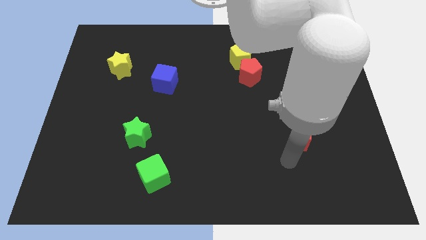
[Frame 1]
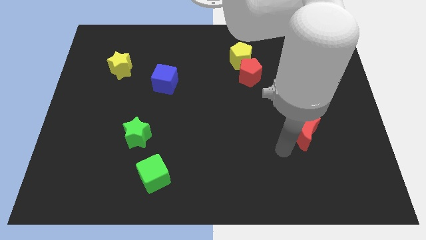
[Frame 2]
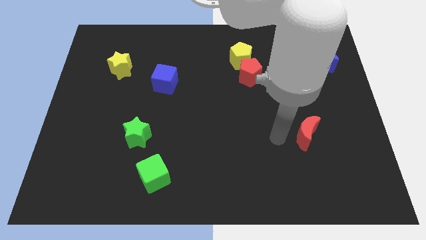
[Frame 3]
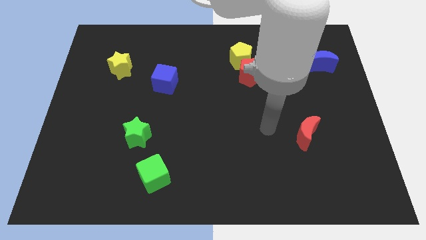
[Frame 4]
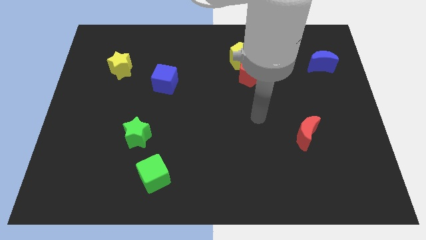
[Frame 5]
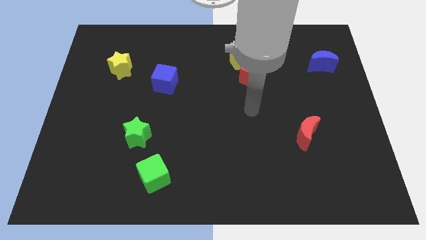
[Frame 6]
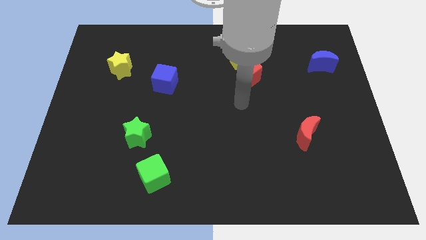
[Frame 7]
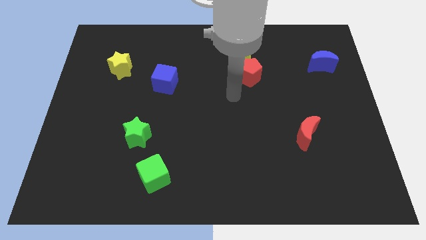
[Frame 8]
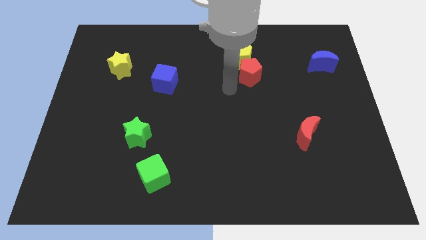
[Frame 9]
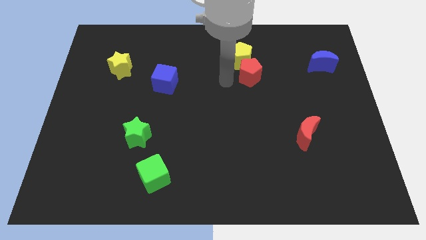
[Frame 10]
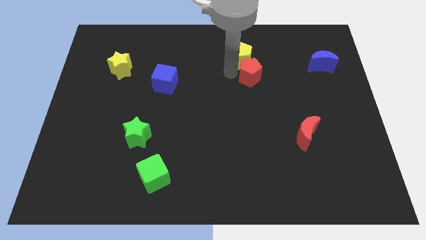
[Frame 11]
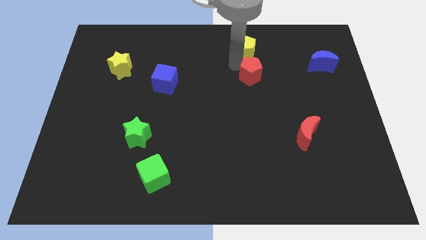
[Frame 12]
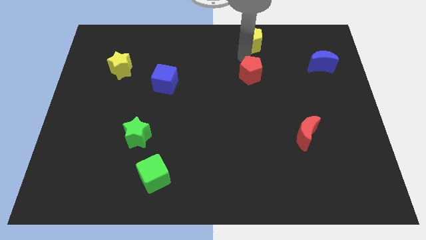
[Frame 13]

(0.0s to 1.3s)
separate the red pentagon from the yellow pentagon

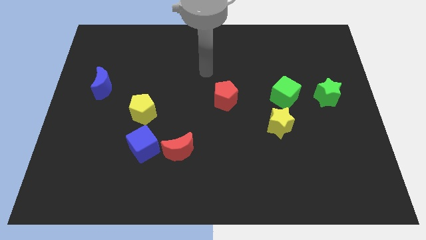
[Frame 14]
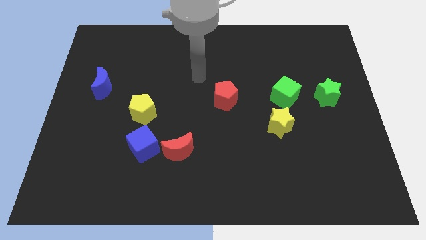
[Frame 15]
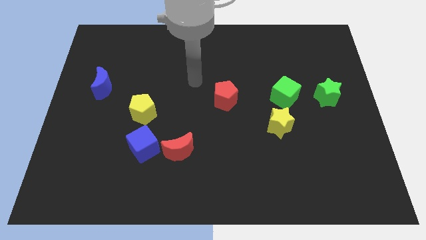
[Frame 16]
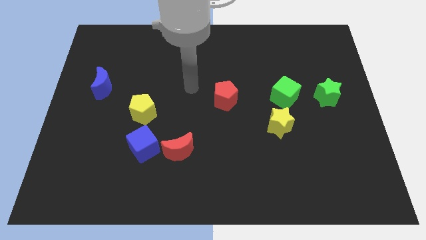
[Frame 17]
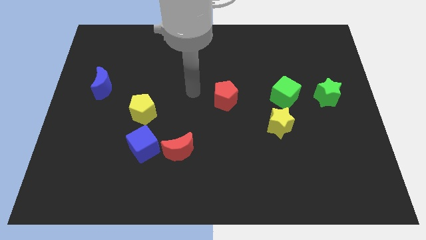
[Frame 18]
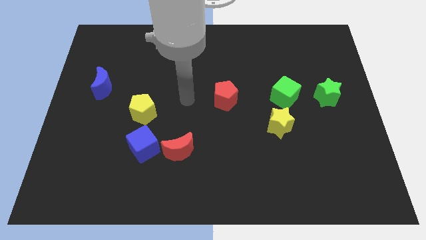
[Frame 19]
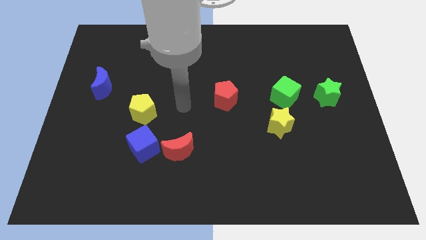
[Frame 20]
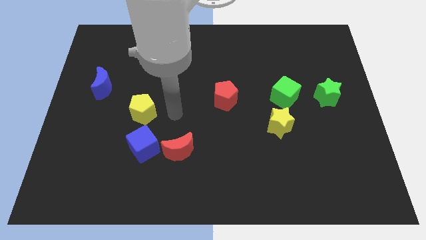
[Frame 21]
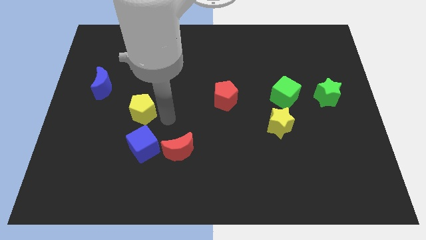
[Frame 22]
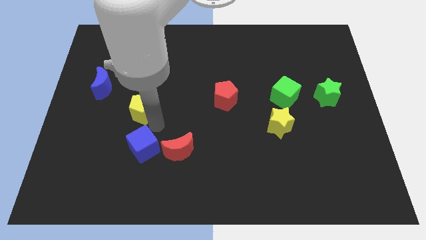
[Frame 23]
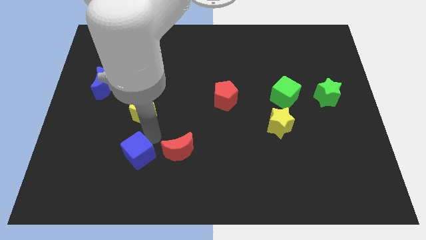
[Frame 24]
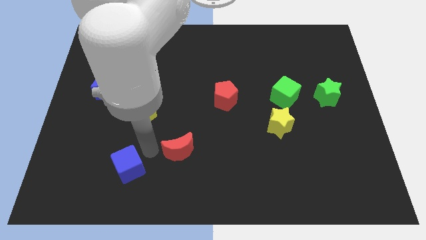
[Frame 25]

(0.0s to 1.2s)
pull the red moon apart from the blue cube

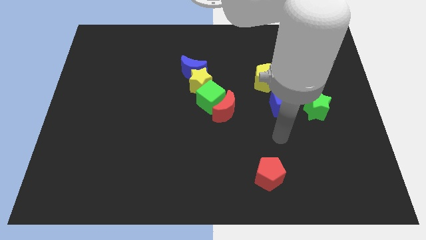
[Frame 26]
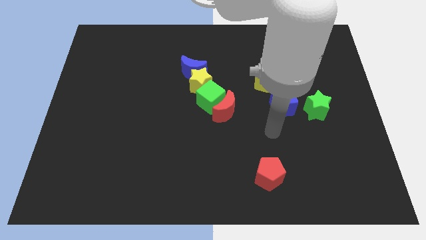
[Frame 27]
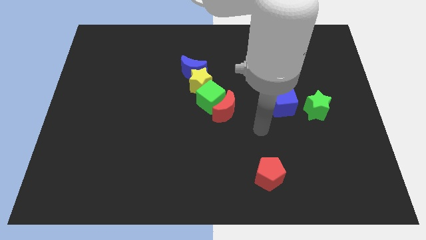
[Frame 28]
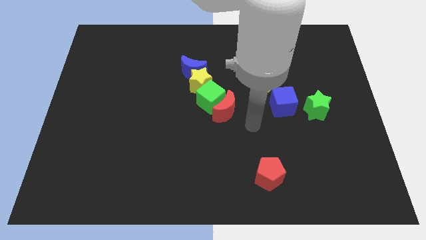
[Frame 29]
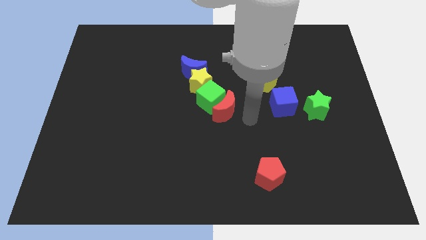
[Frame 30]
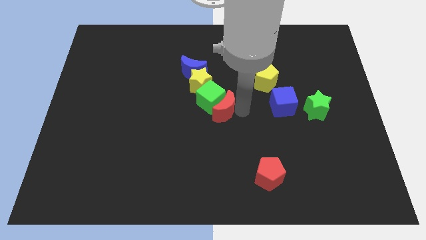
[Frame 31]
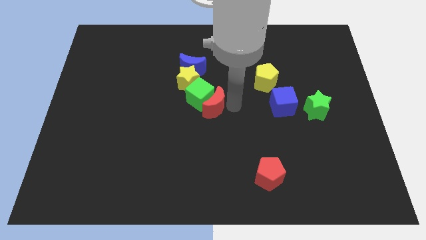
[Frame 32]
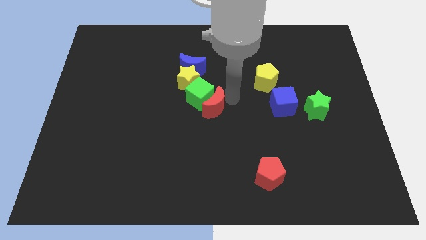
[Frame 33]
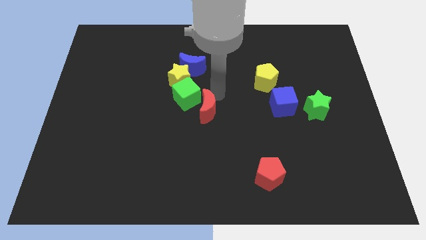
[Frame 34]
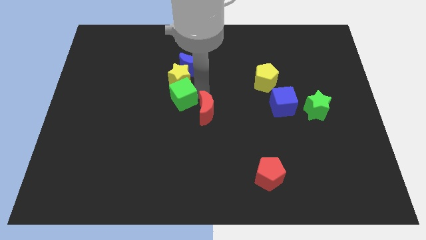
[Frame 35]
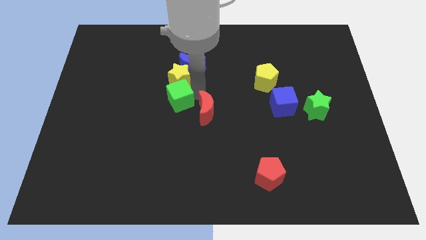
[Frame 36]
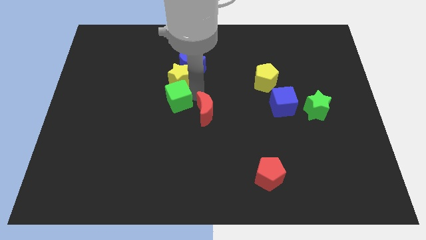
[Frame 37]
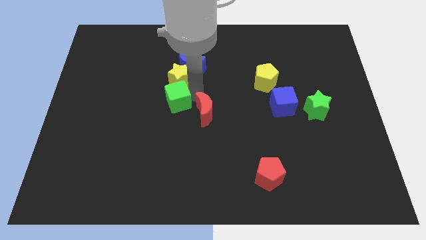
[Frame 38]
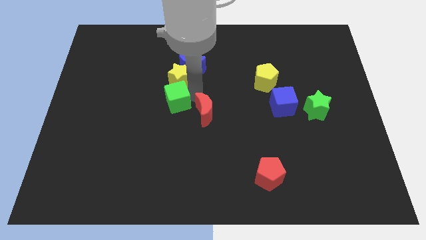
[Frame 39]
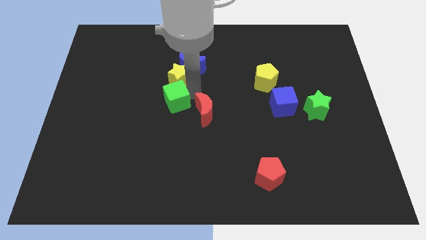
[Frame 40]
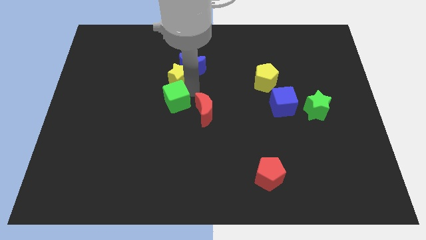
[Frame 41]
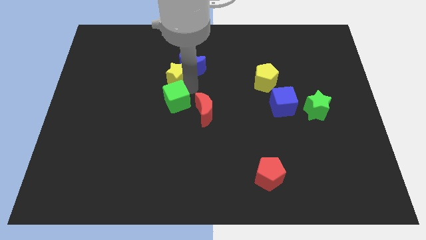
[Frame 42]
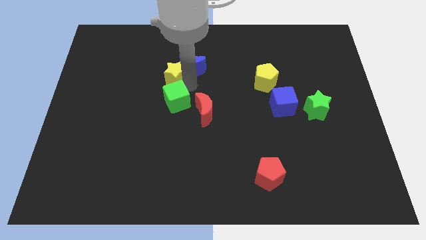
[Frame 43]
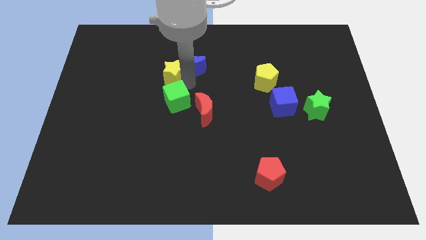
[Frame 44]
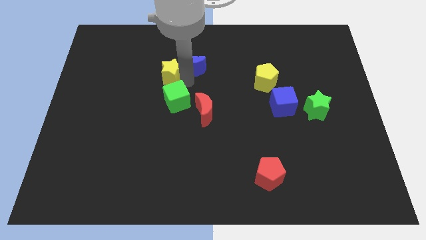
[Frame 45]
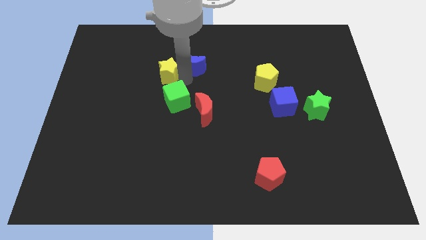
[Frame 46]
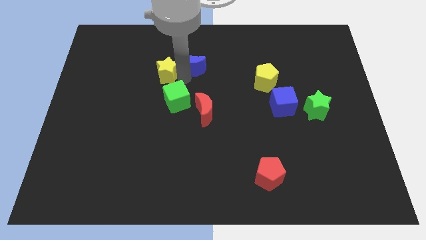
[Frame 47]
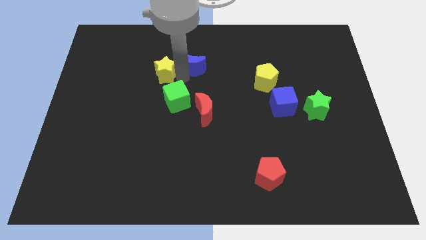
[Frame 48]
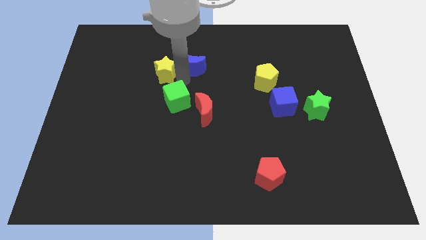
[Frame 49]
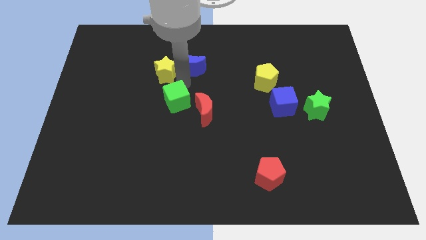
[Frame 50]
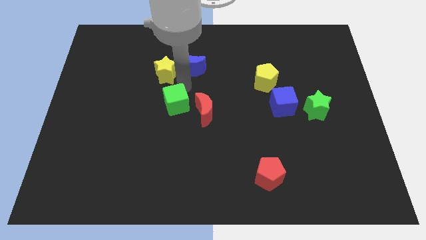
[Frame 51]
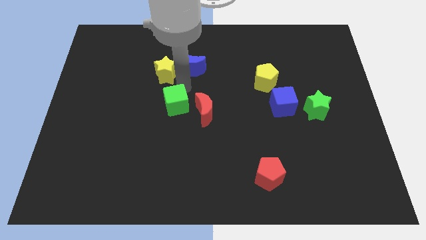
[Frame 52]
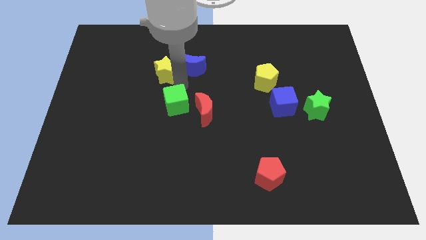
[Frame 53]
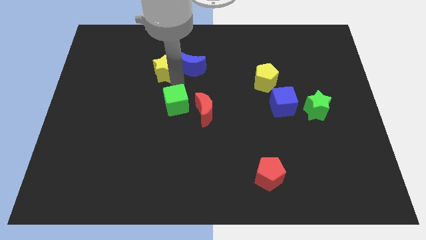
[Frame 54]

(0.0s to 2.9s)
separate the yellow star from the blue moon, green cube, and red moon

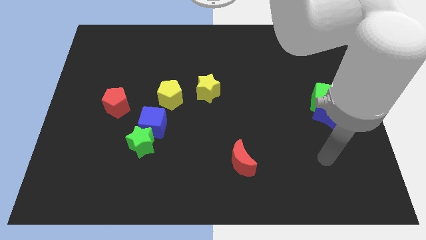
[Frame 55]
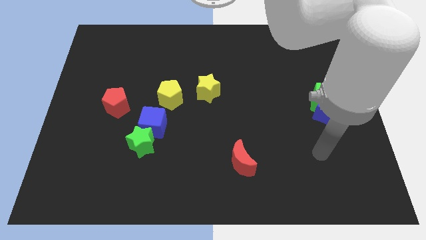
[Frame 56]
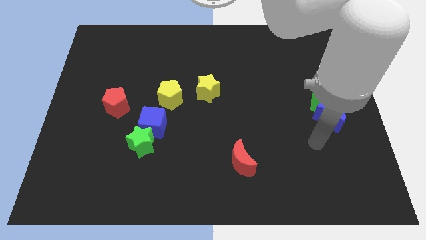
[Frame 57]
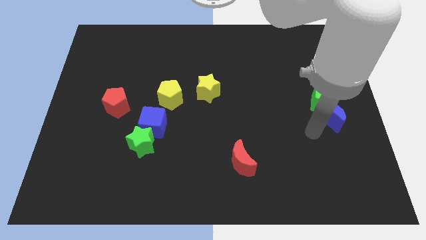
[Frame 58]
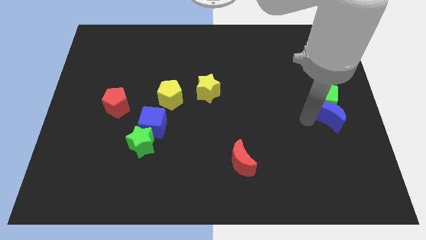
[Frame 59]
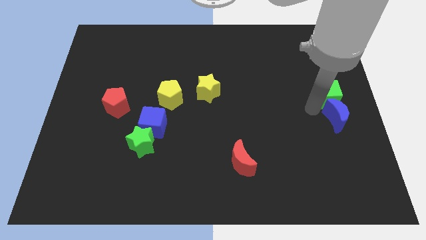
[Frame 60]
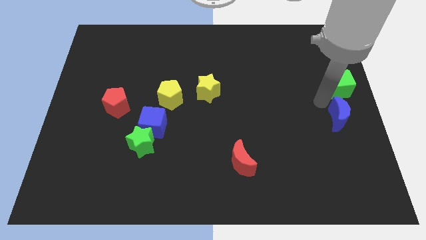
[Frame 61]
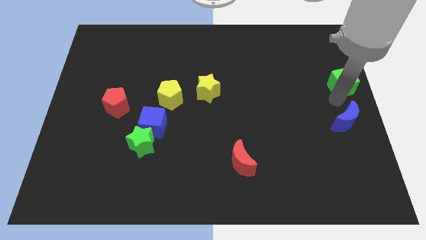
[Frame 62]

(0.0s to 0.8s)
separate the blue moon from the green cube

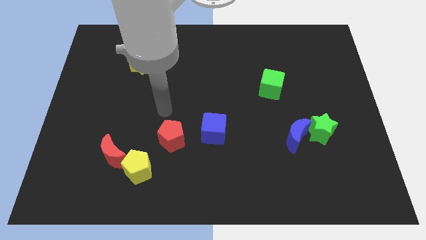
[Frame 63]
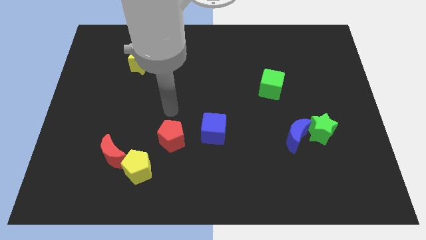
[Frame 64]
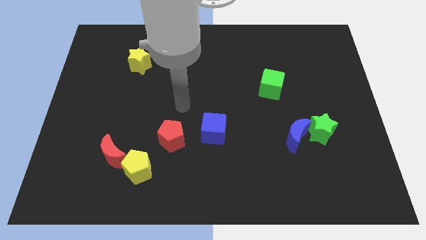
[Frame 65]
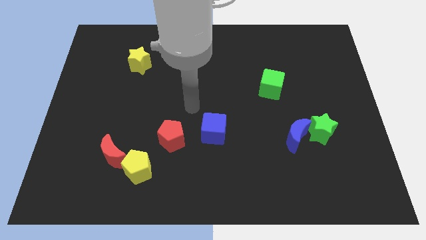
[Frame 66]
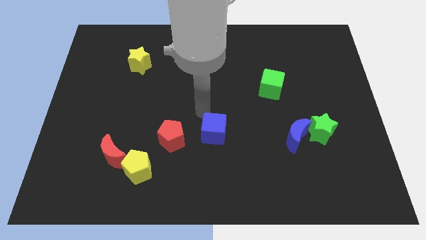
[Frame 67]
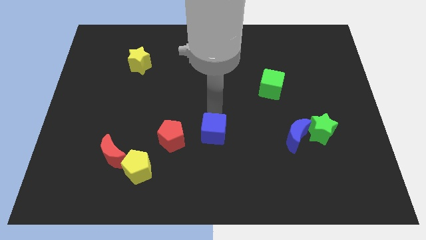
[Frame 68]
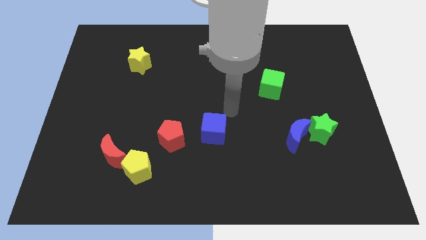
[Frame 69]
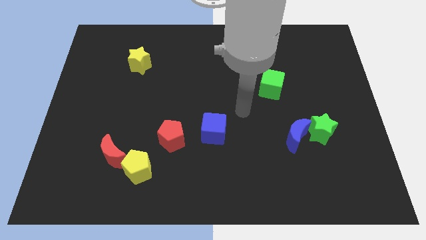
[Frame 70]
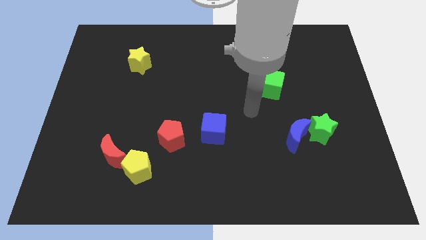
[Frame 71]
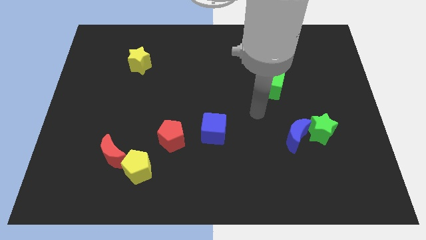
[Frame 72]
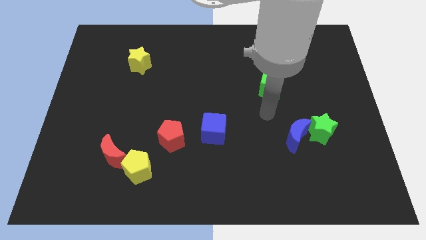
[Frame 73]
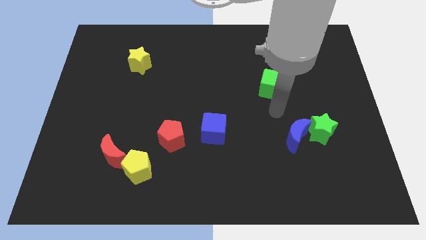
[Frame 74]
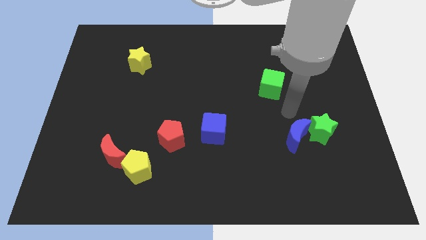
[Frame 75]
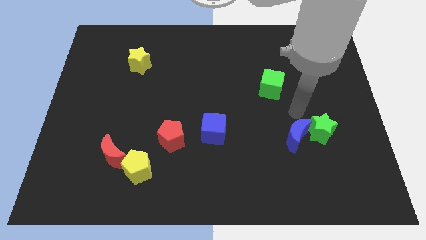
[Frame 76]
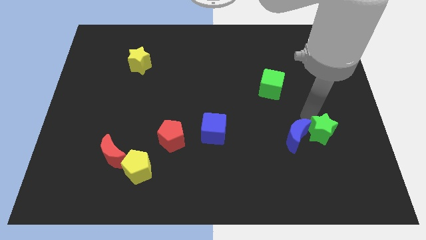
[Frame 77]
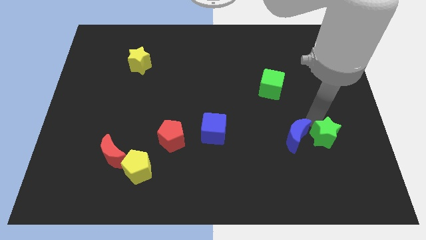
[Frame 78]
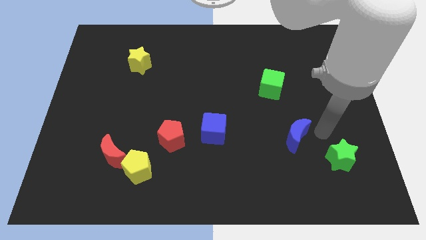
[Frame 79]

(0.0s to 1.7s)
pull the blue moon apart from the green star

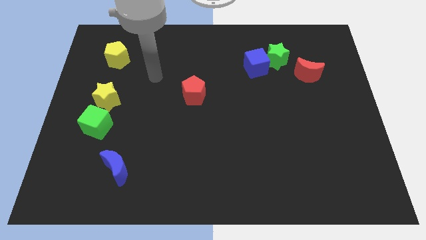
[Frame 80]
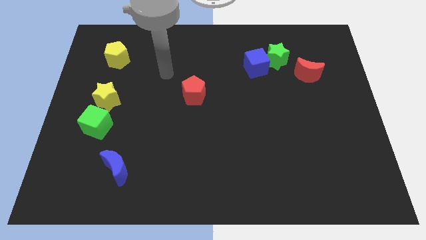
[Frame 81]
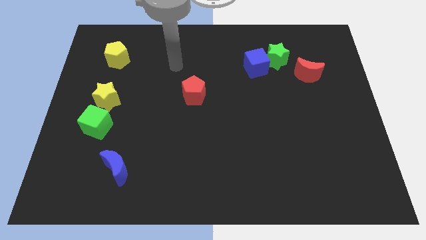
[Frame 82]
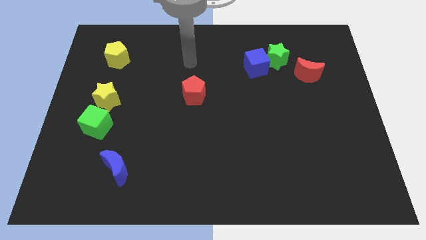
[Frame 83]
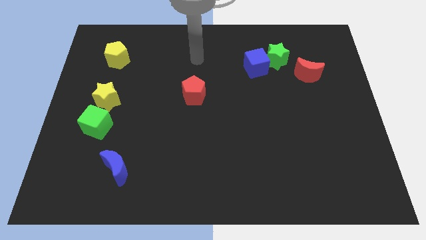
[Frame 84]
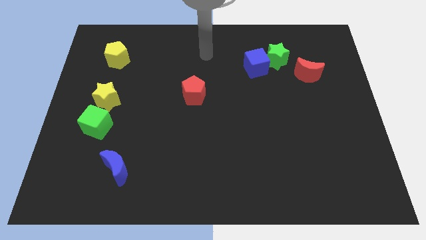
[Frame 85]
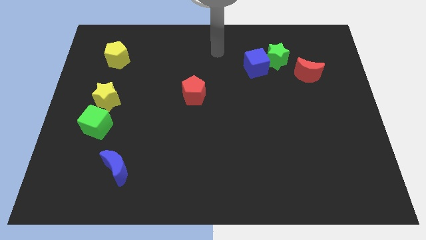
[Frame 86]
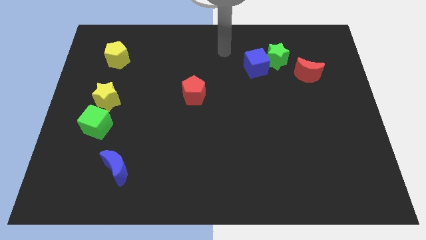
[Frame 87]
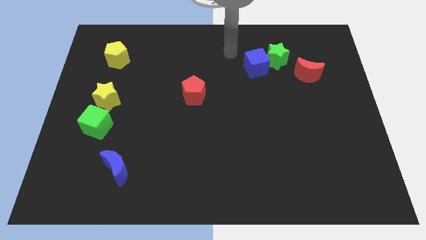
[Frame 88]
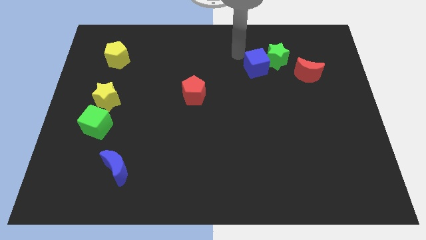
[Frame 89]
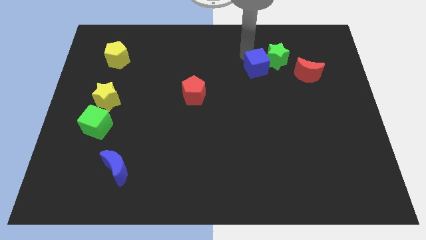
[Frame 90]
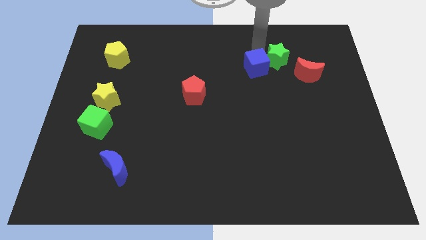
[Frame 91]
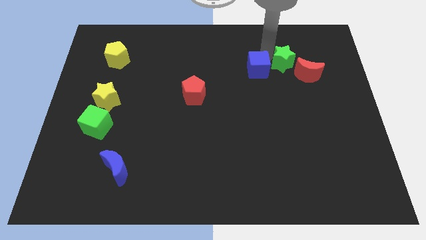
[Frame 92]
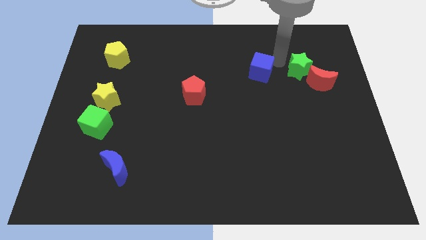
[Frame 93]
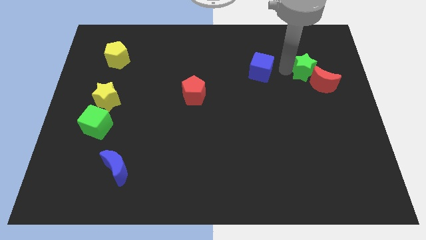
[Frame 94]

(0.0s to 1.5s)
separate the blue cube from the green star
